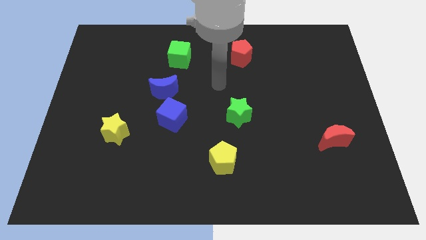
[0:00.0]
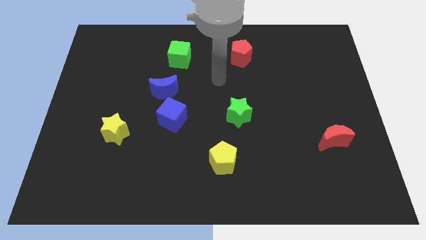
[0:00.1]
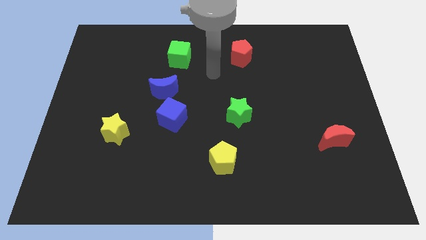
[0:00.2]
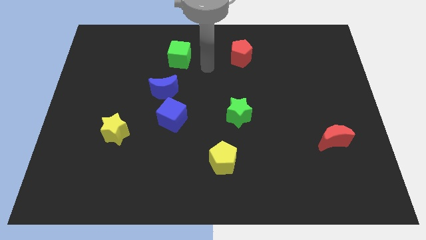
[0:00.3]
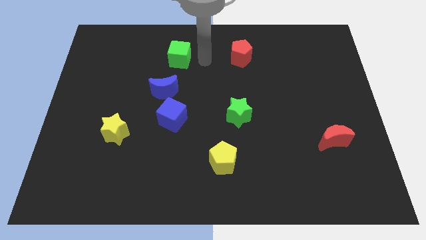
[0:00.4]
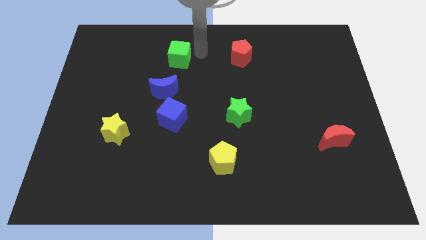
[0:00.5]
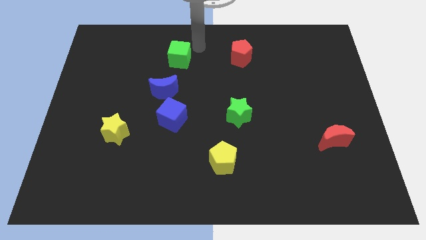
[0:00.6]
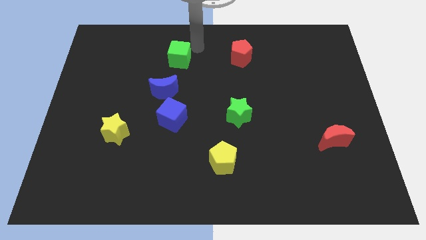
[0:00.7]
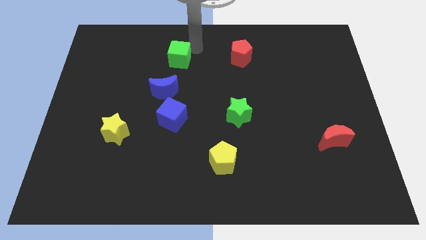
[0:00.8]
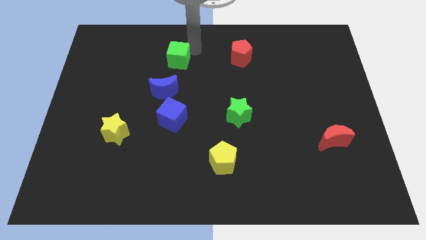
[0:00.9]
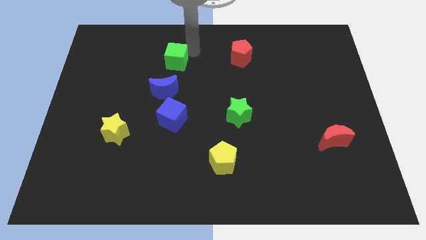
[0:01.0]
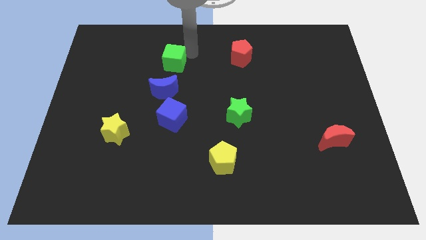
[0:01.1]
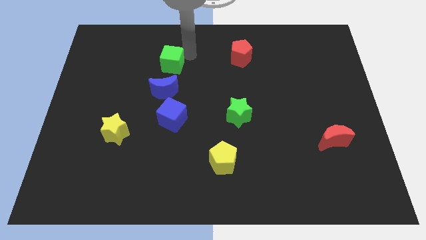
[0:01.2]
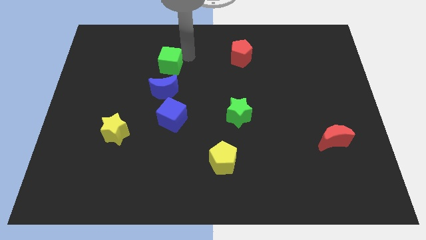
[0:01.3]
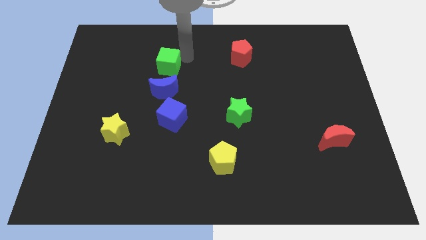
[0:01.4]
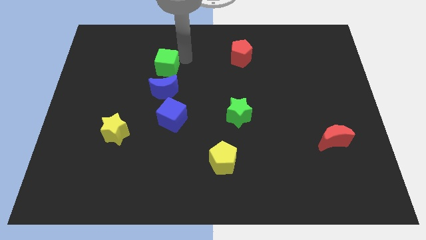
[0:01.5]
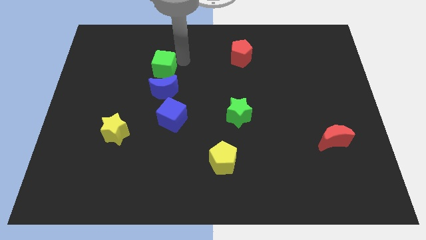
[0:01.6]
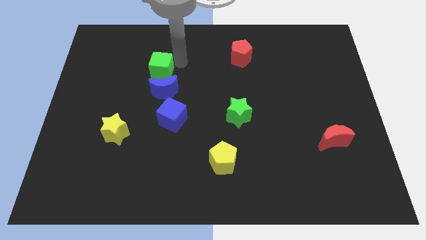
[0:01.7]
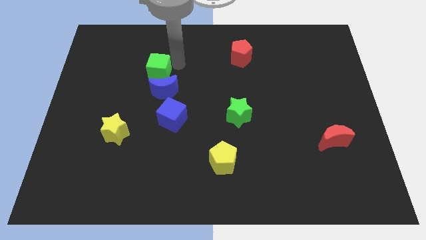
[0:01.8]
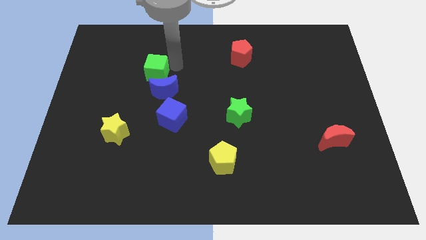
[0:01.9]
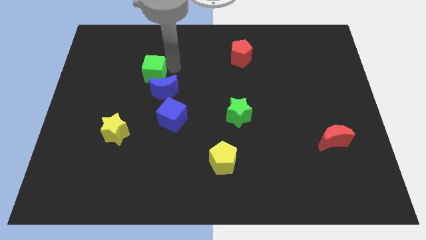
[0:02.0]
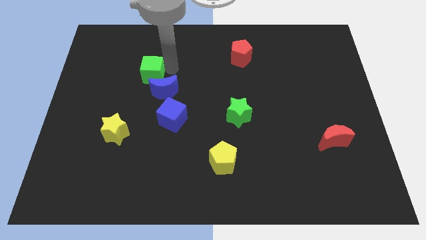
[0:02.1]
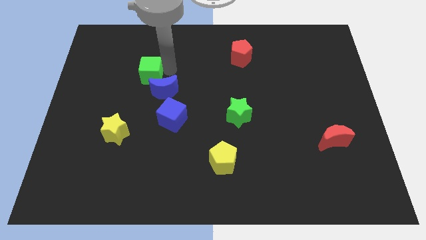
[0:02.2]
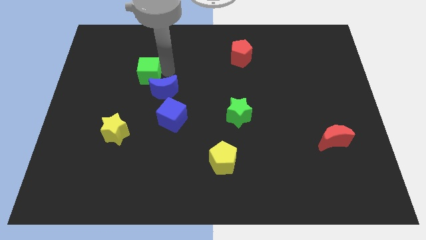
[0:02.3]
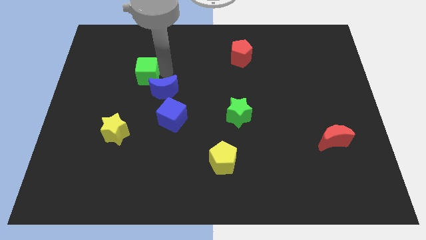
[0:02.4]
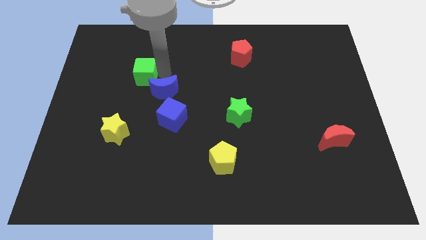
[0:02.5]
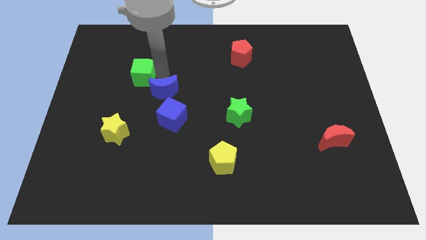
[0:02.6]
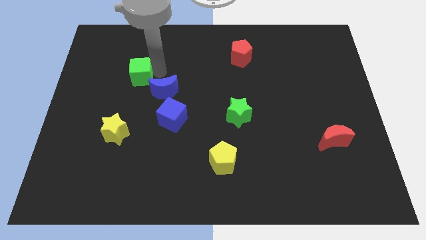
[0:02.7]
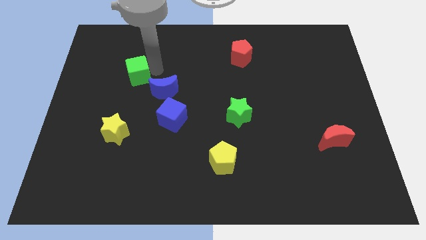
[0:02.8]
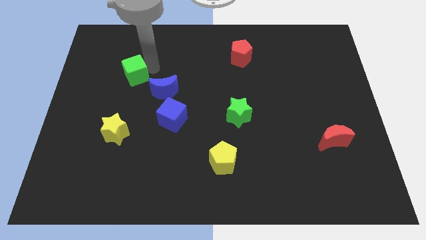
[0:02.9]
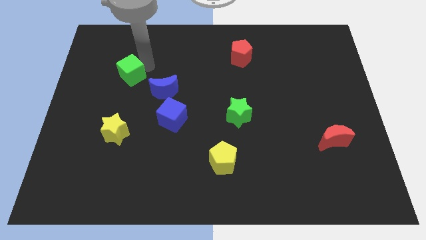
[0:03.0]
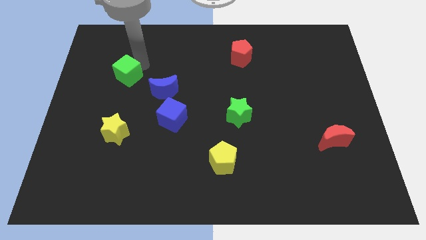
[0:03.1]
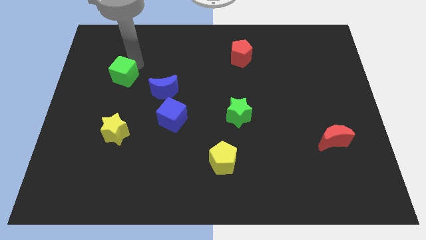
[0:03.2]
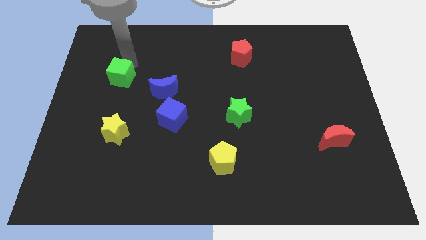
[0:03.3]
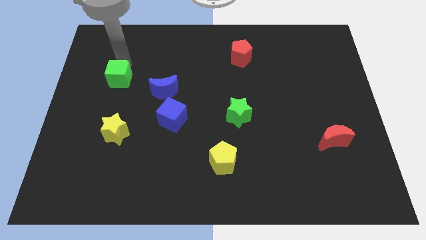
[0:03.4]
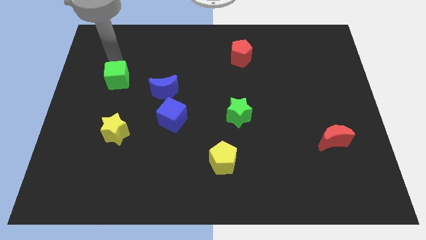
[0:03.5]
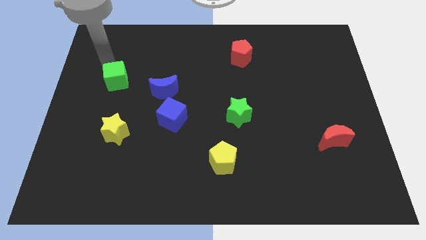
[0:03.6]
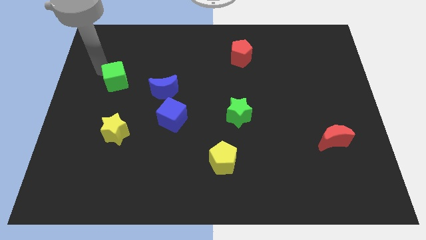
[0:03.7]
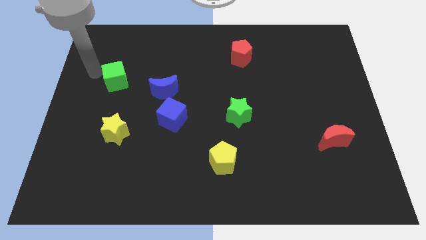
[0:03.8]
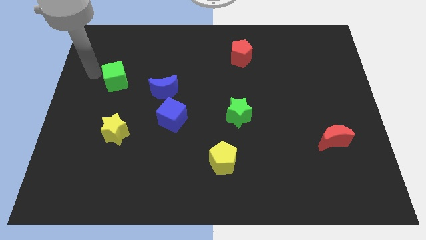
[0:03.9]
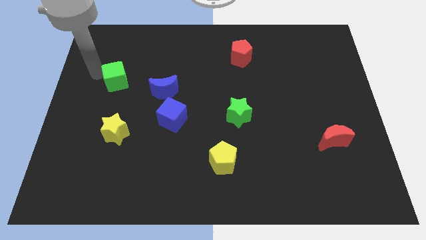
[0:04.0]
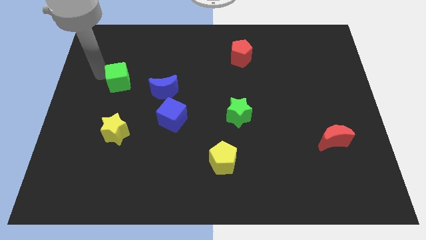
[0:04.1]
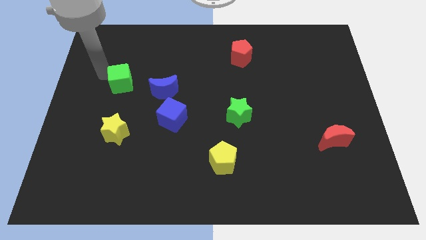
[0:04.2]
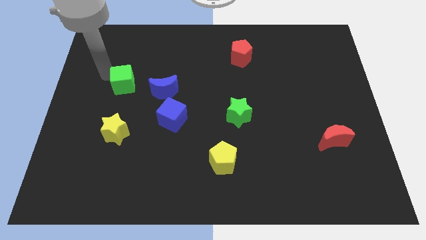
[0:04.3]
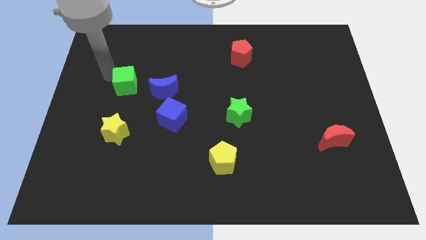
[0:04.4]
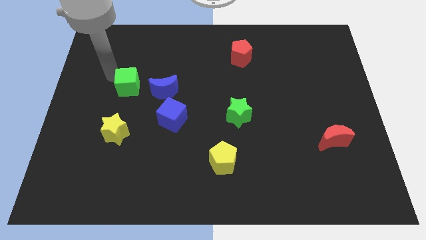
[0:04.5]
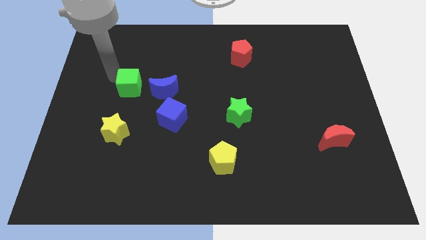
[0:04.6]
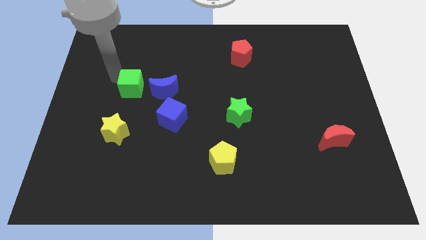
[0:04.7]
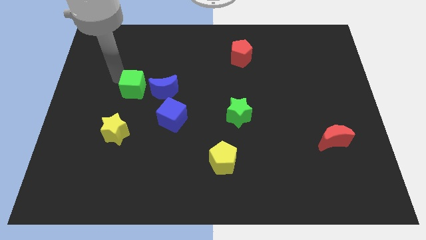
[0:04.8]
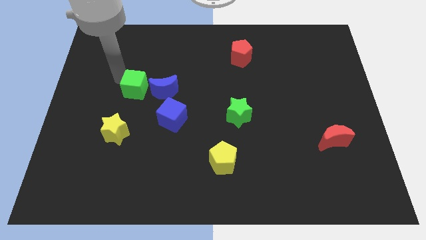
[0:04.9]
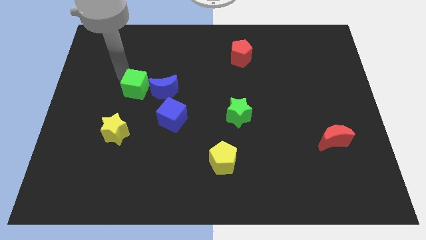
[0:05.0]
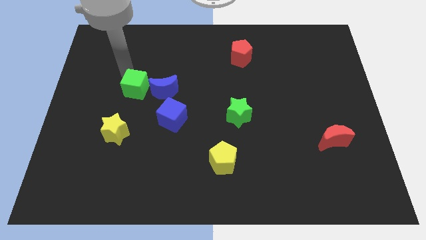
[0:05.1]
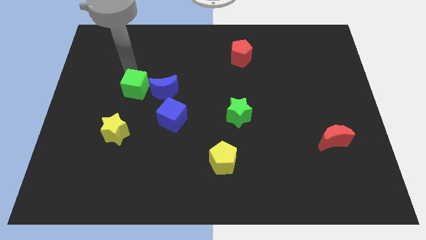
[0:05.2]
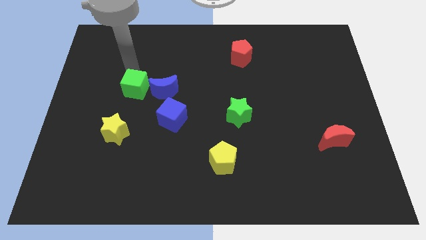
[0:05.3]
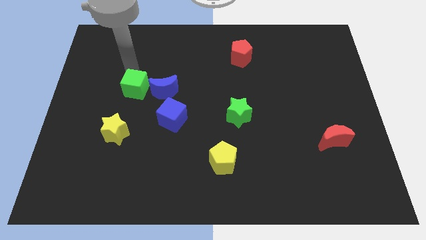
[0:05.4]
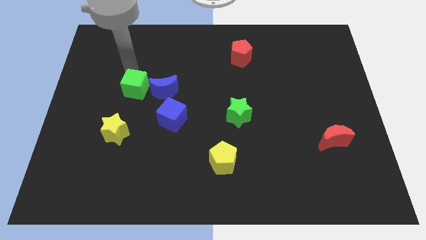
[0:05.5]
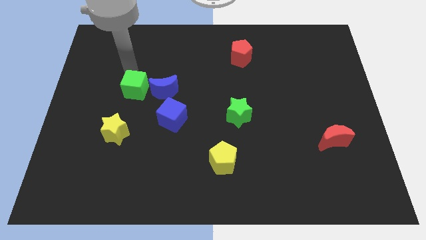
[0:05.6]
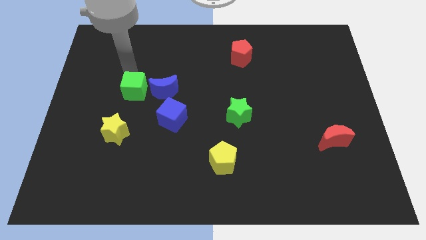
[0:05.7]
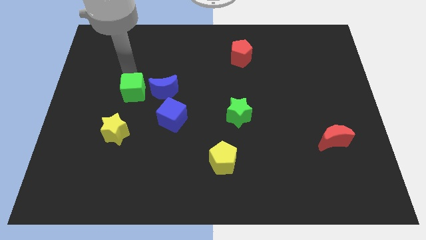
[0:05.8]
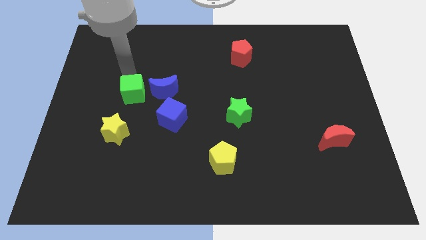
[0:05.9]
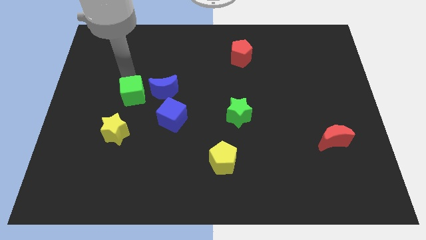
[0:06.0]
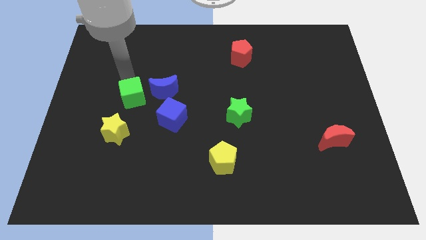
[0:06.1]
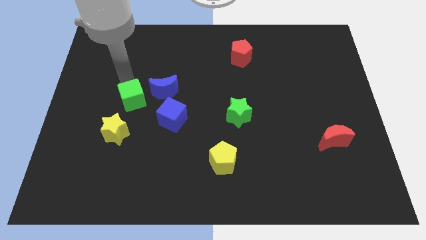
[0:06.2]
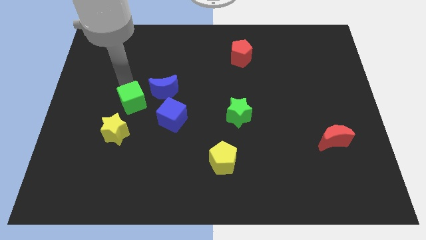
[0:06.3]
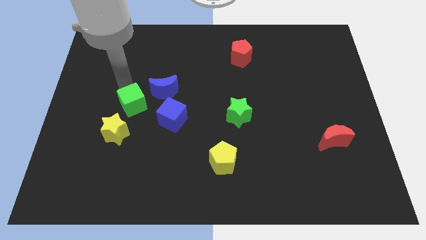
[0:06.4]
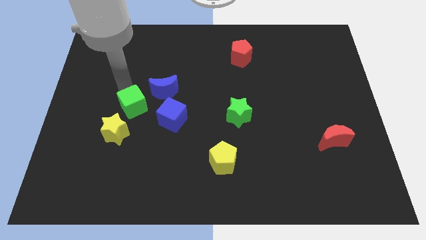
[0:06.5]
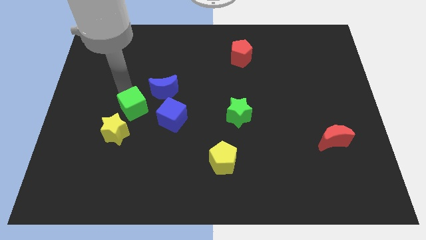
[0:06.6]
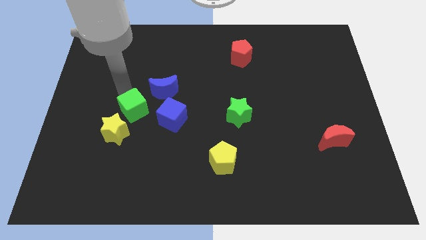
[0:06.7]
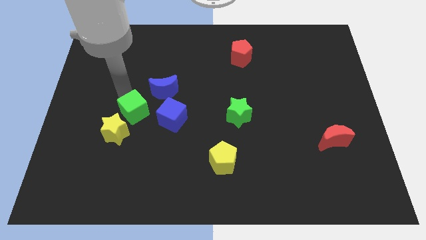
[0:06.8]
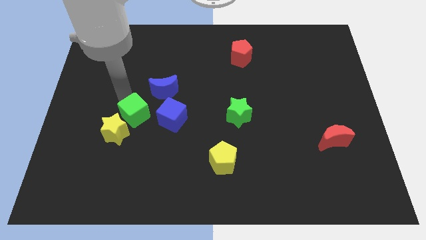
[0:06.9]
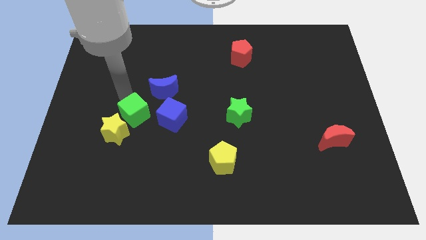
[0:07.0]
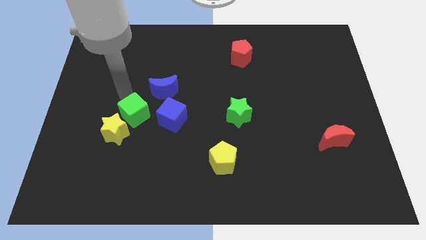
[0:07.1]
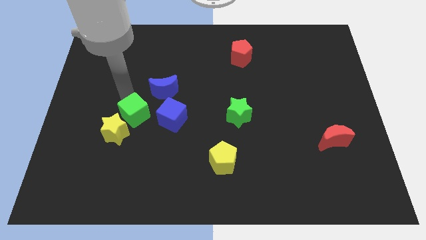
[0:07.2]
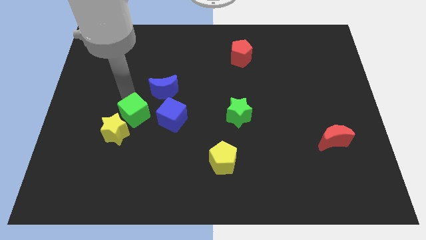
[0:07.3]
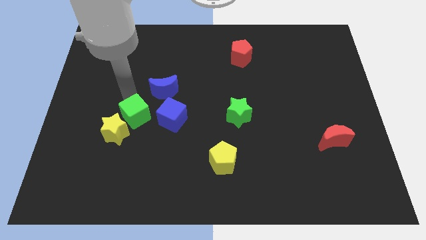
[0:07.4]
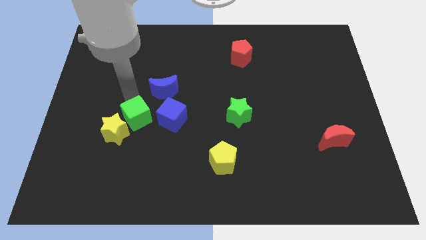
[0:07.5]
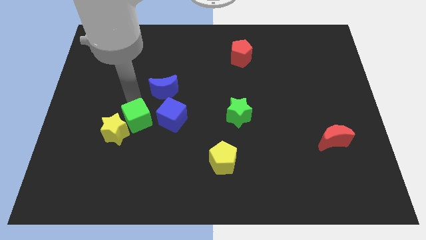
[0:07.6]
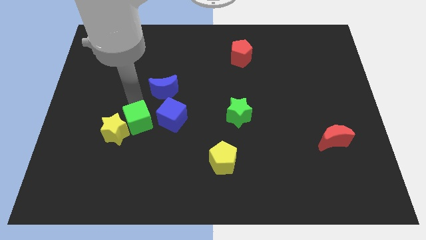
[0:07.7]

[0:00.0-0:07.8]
put the green cube diagonally down and to the left of the blue cube
